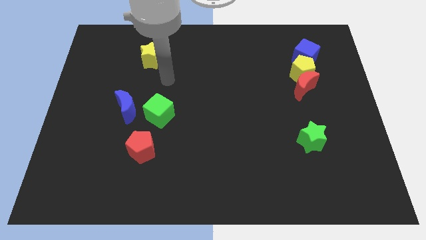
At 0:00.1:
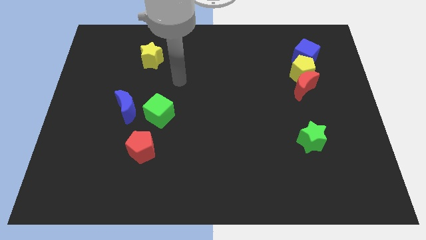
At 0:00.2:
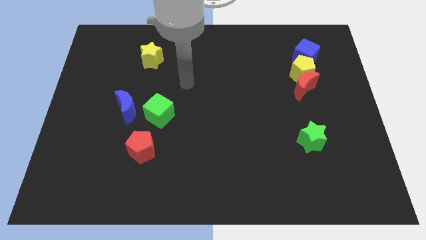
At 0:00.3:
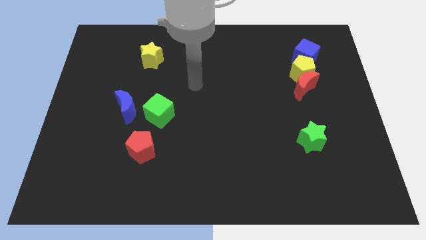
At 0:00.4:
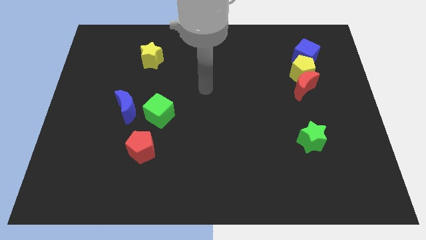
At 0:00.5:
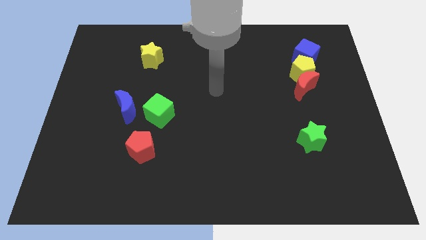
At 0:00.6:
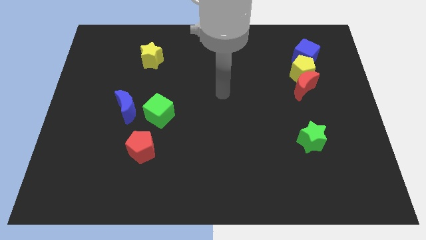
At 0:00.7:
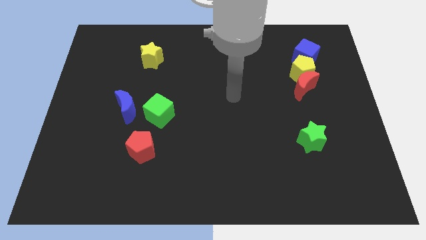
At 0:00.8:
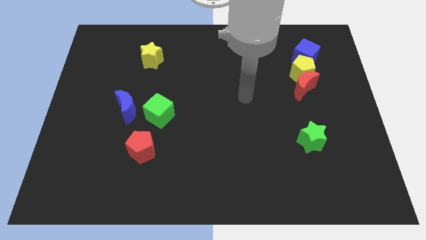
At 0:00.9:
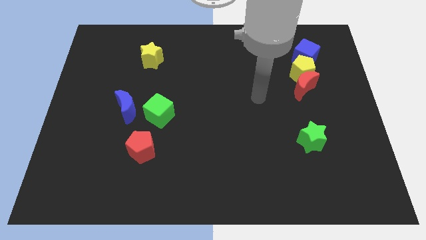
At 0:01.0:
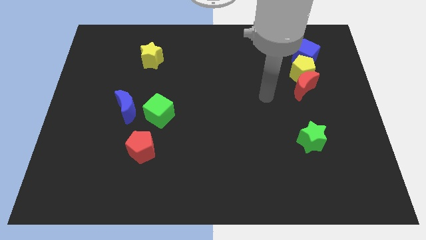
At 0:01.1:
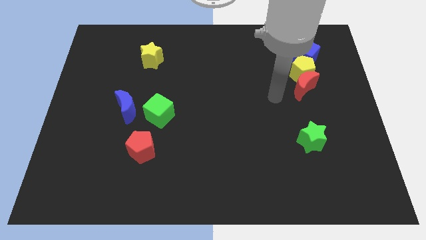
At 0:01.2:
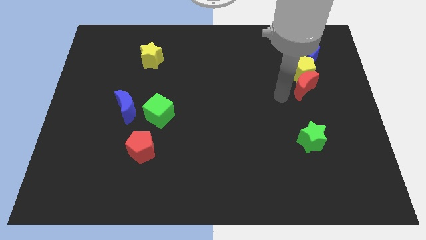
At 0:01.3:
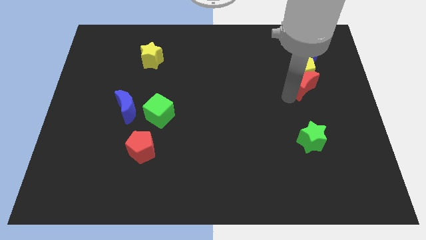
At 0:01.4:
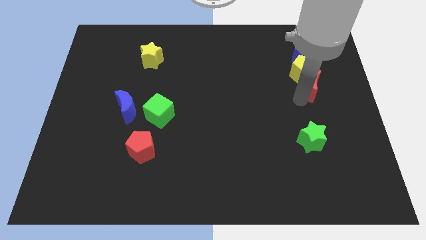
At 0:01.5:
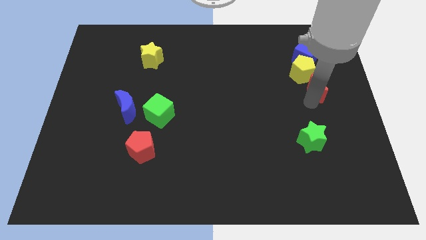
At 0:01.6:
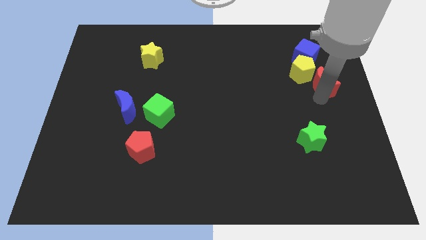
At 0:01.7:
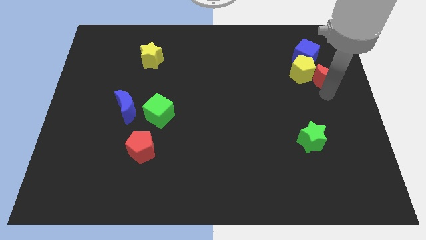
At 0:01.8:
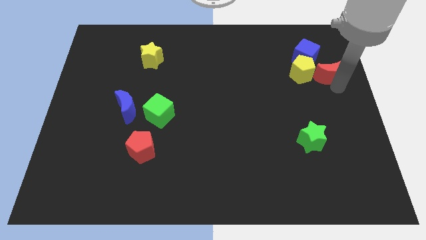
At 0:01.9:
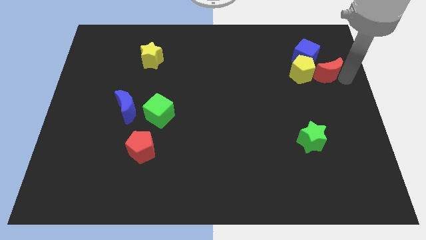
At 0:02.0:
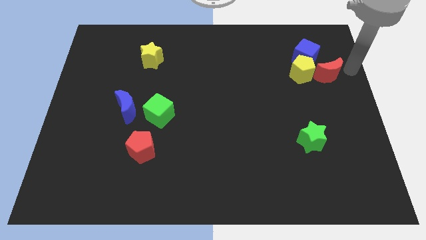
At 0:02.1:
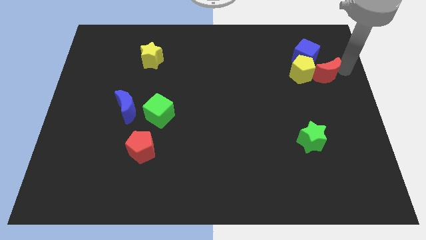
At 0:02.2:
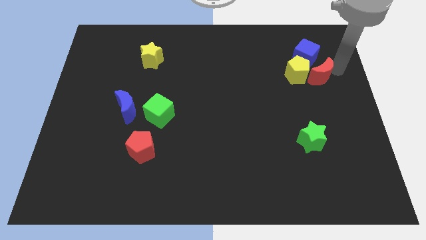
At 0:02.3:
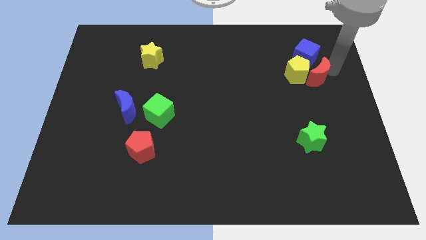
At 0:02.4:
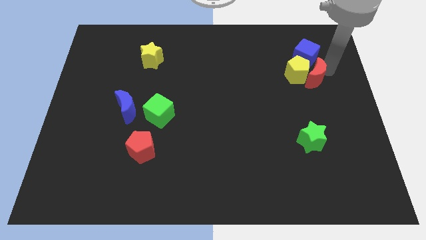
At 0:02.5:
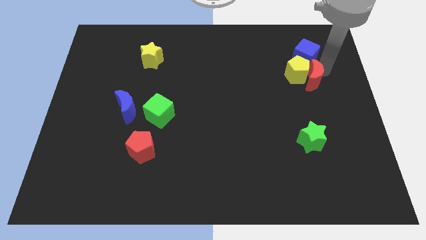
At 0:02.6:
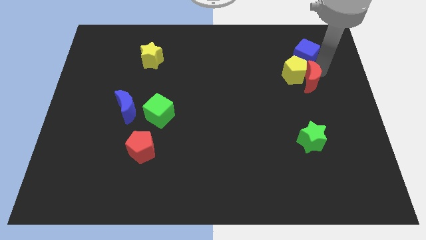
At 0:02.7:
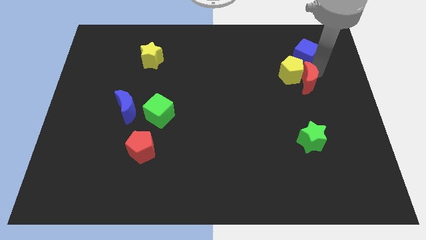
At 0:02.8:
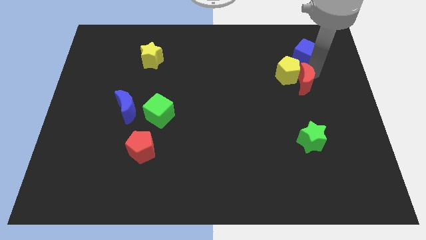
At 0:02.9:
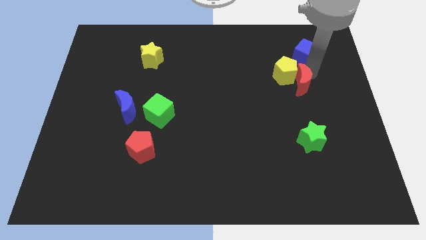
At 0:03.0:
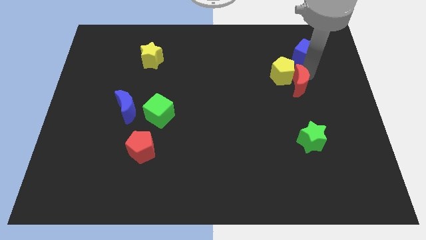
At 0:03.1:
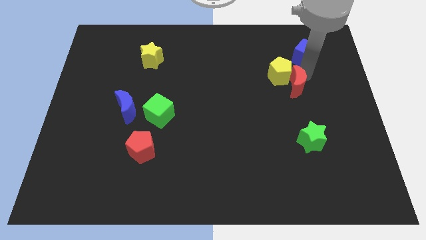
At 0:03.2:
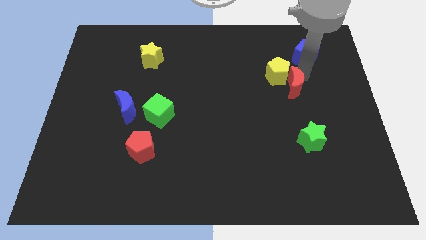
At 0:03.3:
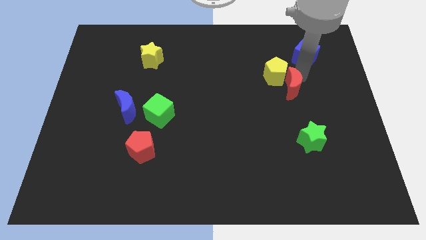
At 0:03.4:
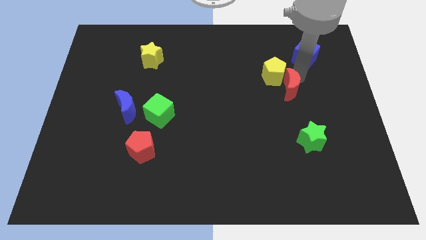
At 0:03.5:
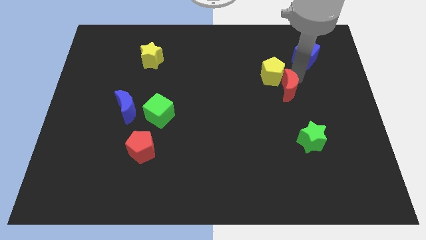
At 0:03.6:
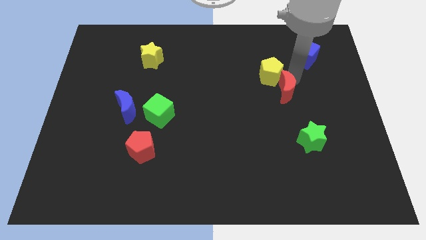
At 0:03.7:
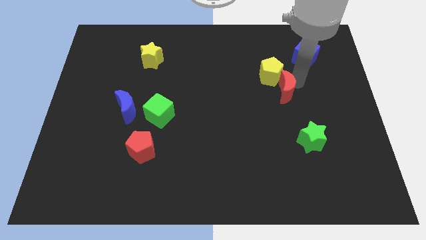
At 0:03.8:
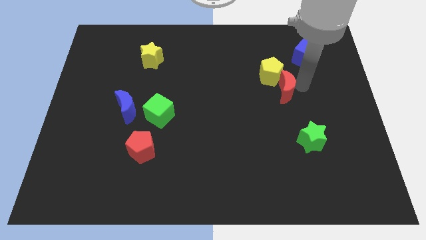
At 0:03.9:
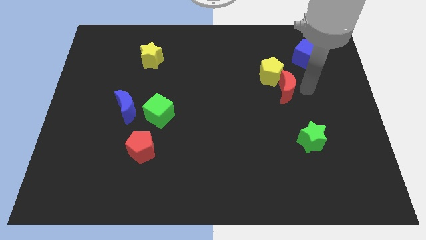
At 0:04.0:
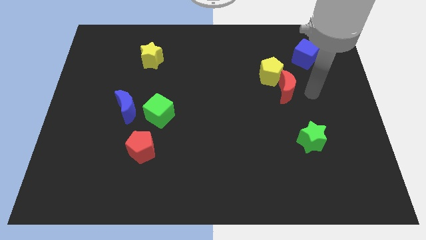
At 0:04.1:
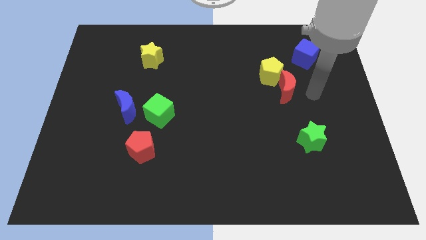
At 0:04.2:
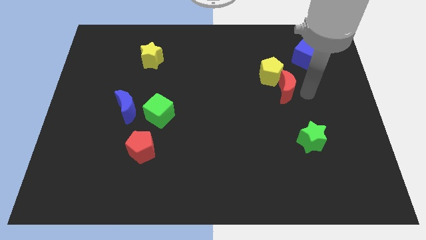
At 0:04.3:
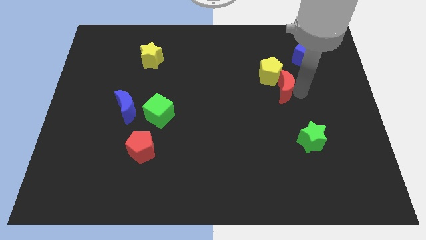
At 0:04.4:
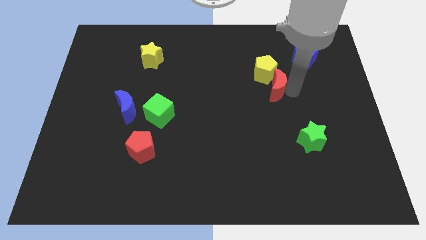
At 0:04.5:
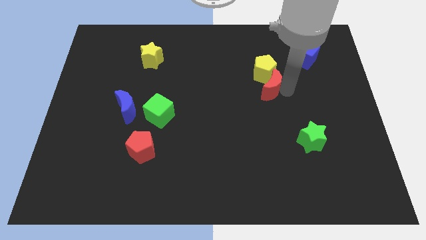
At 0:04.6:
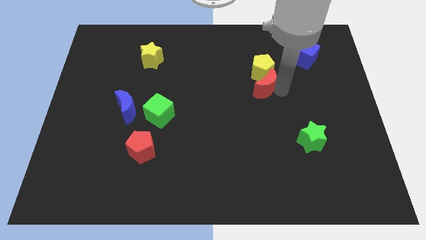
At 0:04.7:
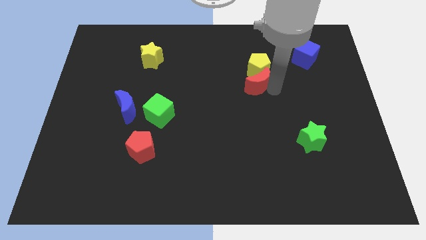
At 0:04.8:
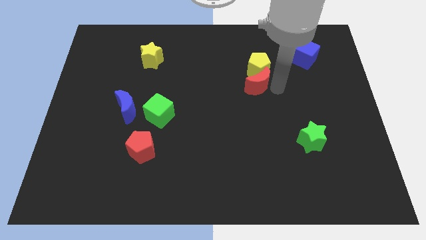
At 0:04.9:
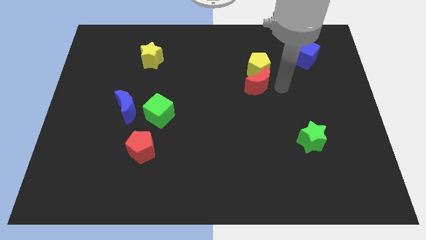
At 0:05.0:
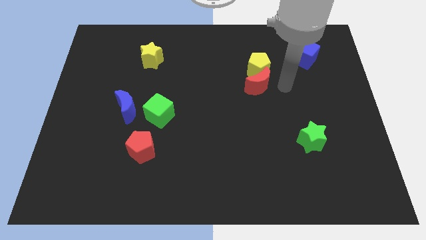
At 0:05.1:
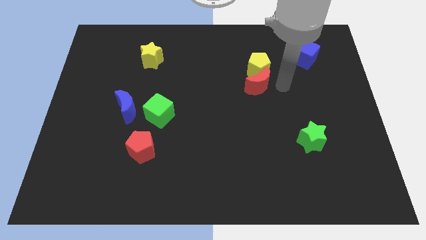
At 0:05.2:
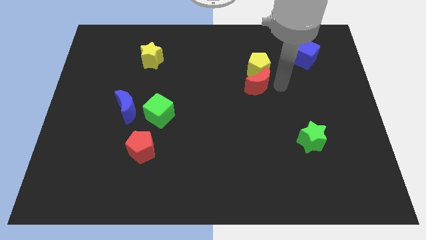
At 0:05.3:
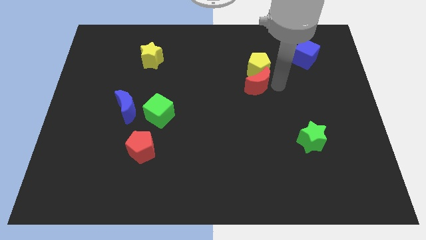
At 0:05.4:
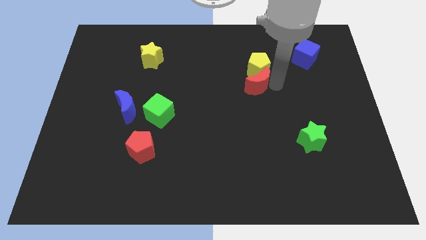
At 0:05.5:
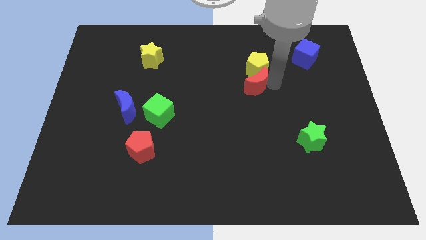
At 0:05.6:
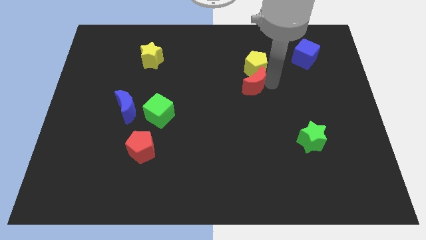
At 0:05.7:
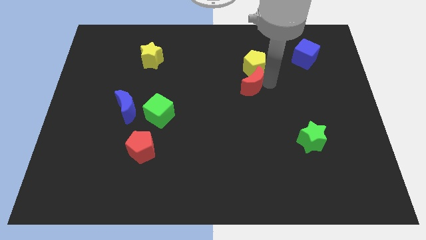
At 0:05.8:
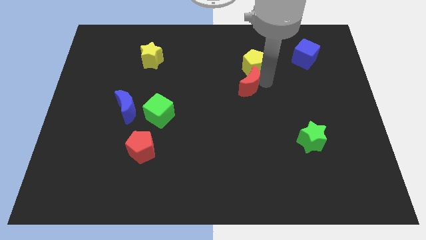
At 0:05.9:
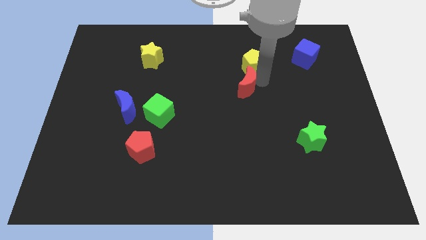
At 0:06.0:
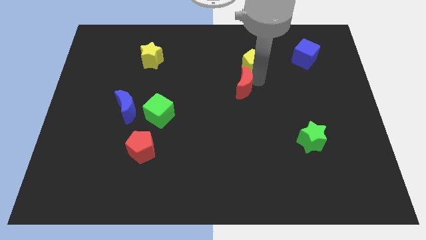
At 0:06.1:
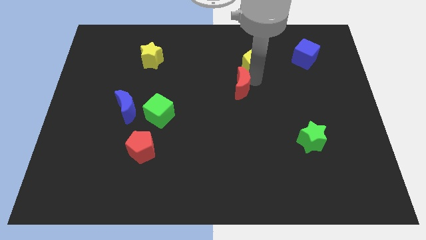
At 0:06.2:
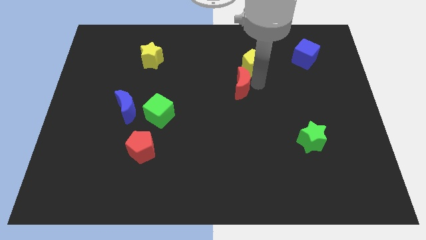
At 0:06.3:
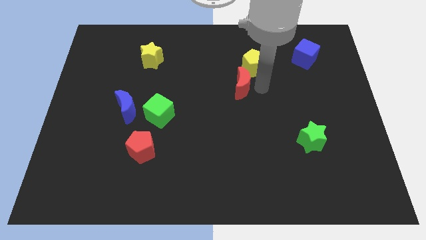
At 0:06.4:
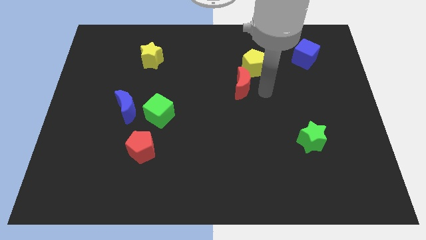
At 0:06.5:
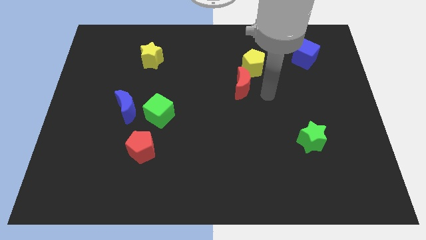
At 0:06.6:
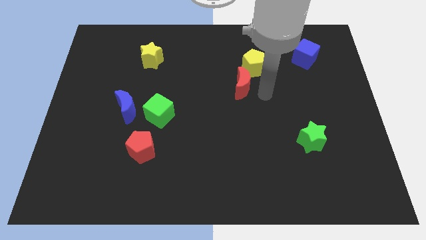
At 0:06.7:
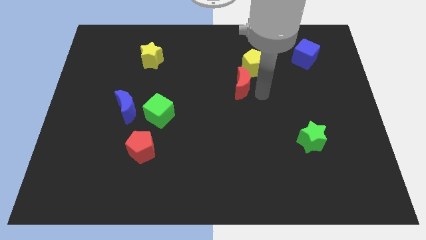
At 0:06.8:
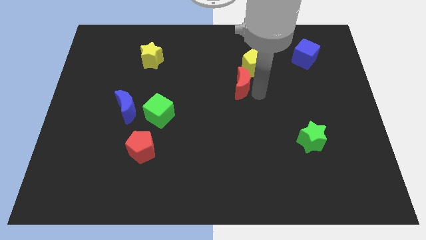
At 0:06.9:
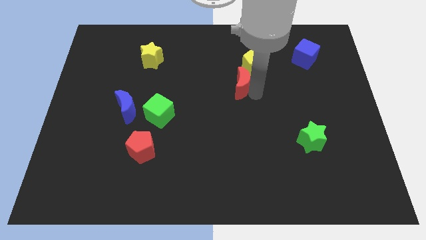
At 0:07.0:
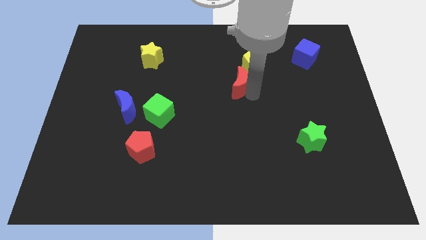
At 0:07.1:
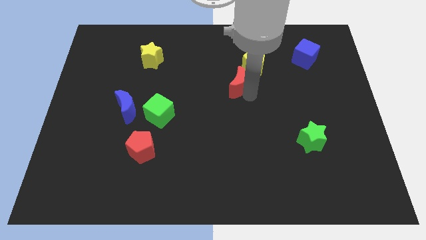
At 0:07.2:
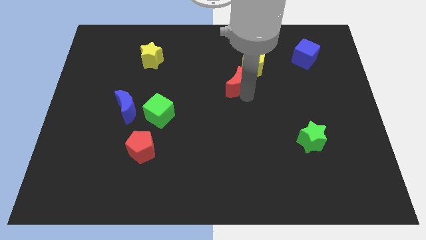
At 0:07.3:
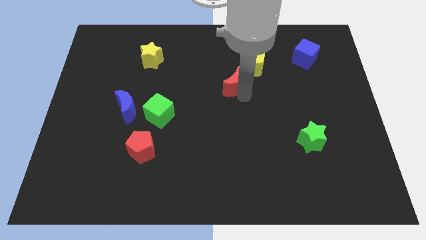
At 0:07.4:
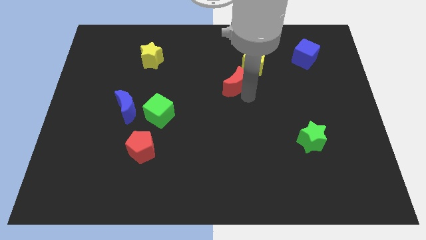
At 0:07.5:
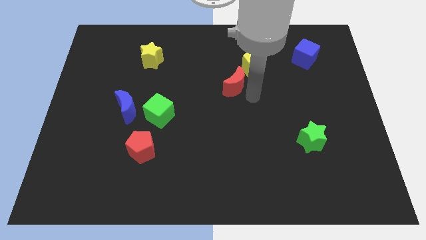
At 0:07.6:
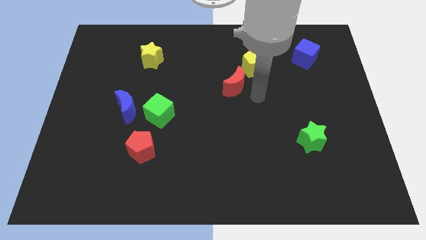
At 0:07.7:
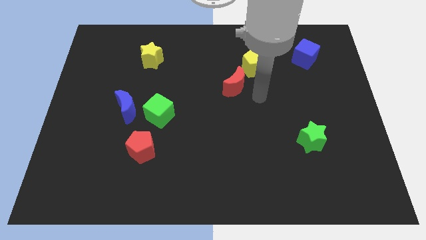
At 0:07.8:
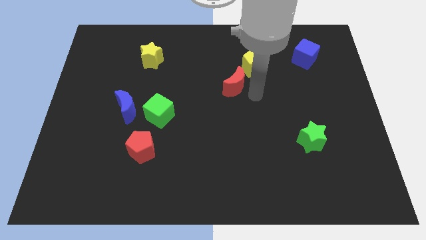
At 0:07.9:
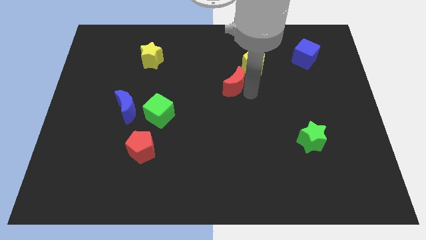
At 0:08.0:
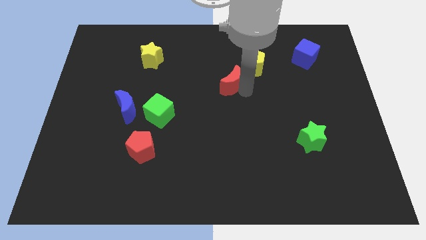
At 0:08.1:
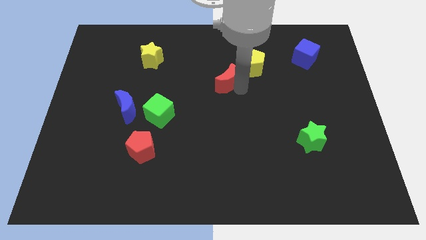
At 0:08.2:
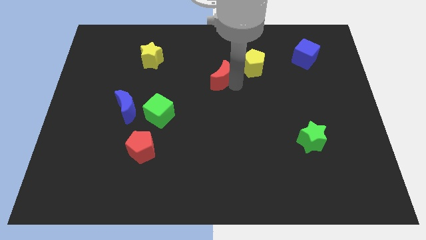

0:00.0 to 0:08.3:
move the red moon to the left
